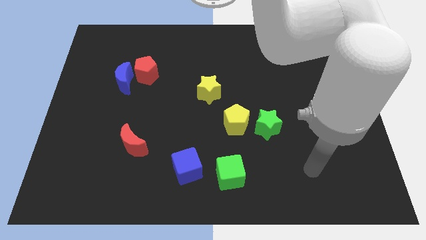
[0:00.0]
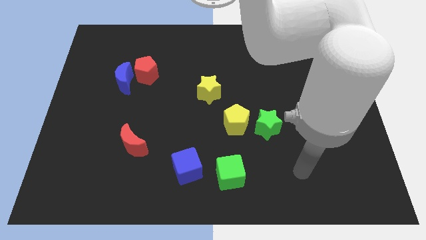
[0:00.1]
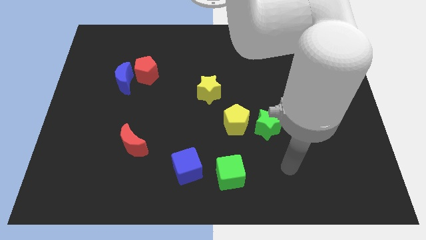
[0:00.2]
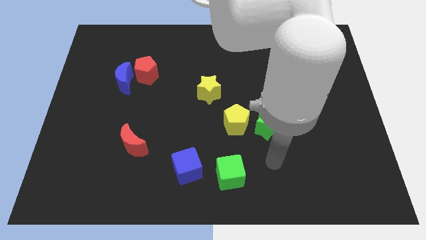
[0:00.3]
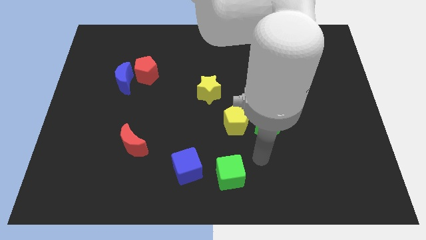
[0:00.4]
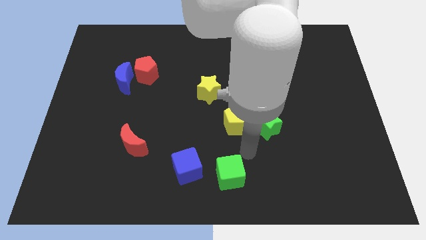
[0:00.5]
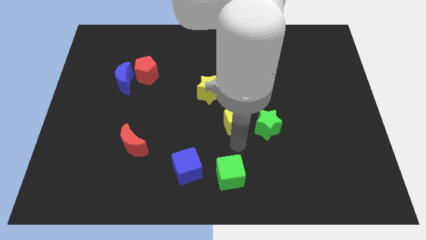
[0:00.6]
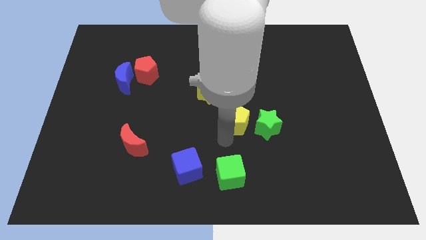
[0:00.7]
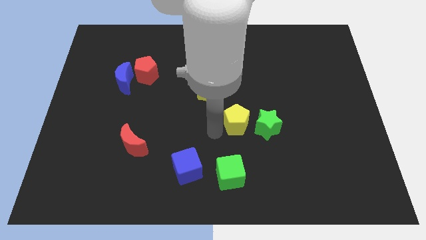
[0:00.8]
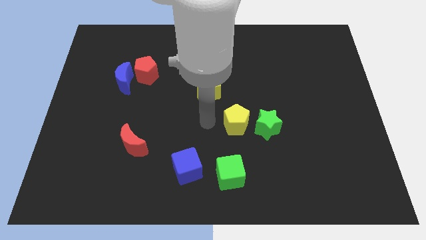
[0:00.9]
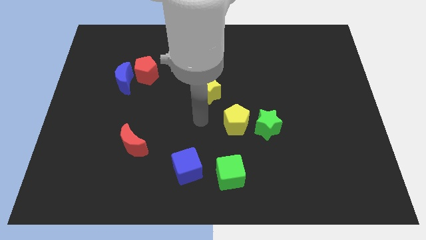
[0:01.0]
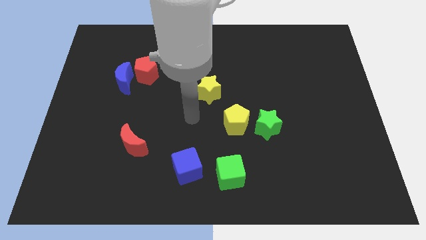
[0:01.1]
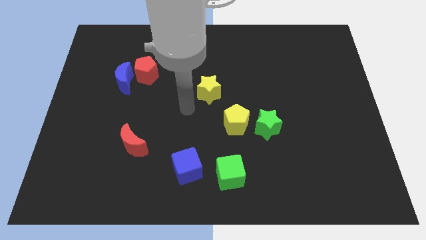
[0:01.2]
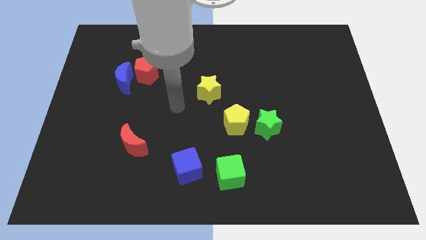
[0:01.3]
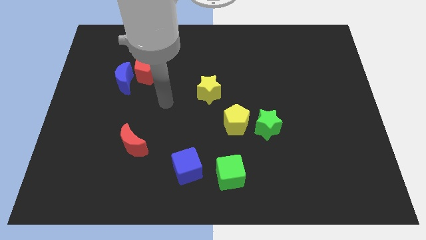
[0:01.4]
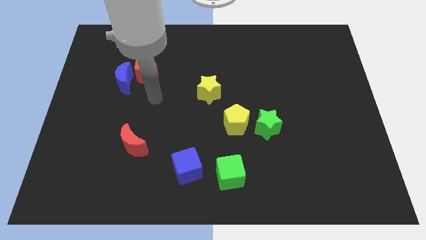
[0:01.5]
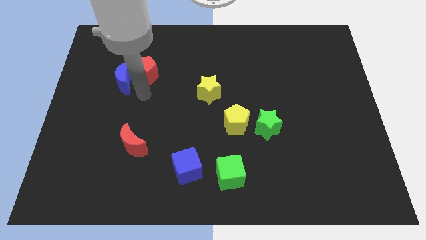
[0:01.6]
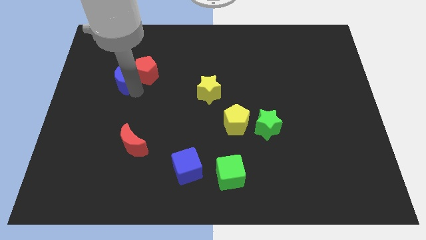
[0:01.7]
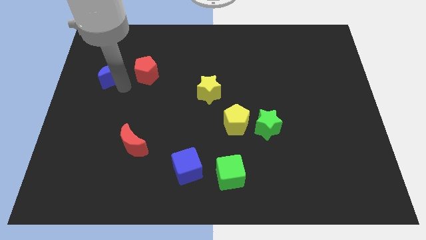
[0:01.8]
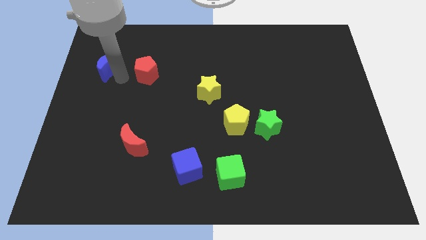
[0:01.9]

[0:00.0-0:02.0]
move the red pentagon away from the blue moon

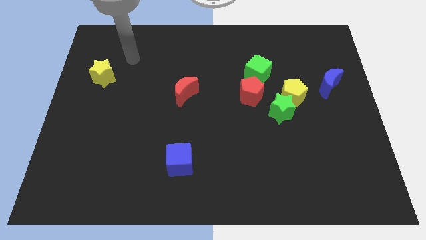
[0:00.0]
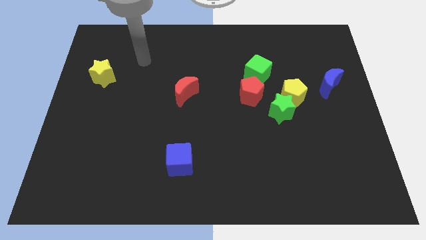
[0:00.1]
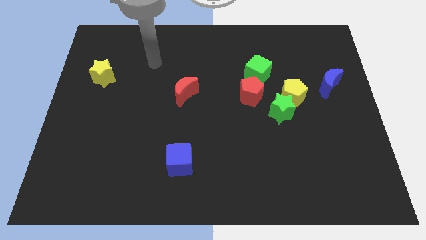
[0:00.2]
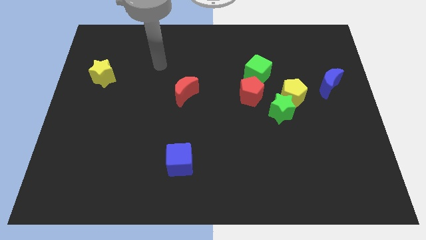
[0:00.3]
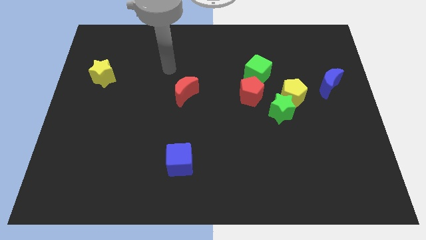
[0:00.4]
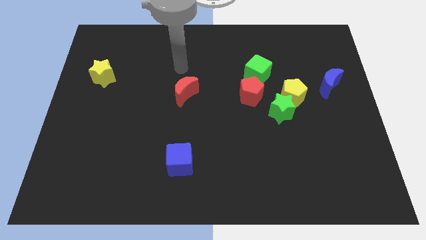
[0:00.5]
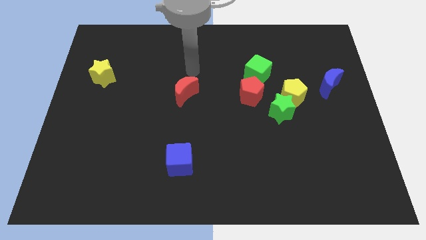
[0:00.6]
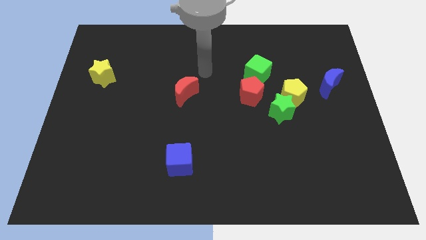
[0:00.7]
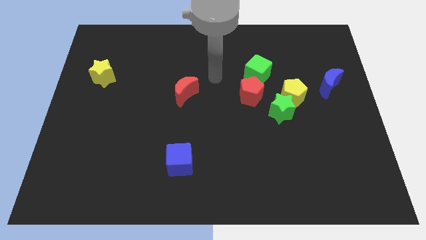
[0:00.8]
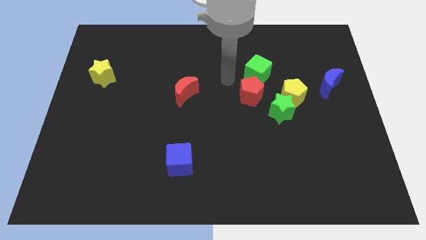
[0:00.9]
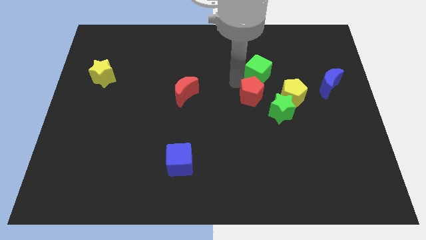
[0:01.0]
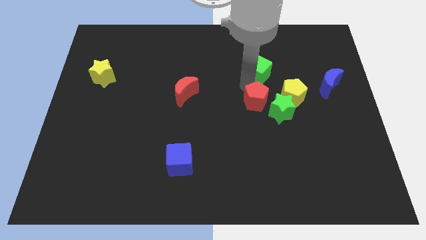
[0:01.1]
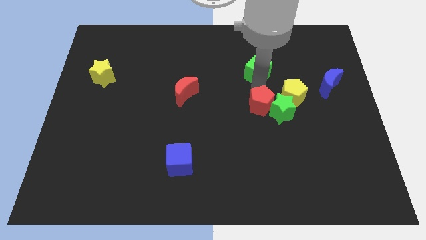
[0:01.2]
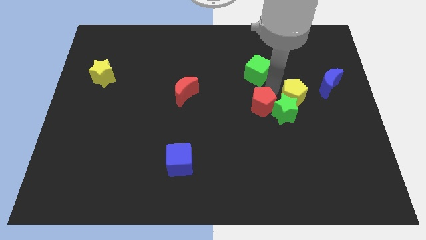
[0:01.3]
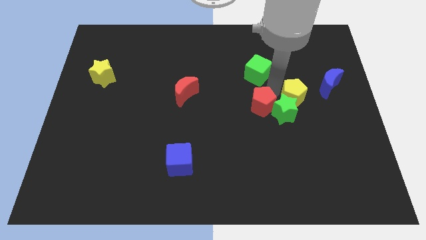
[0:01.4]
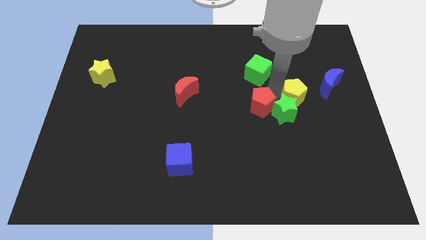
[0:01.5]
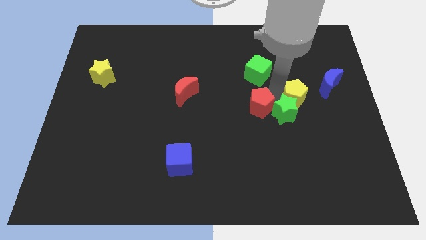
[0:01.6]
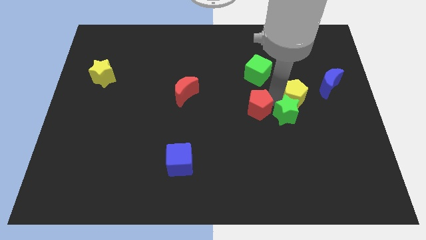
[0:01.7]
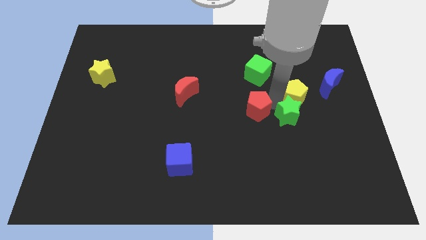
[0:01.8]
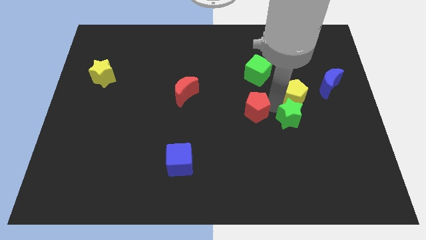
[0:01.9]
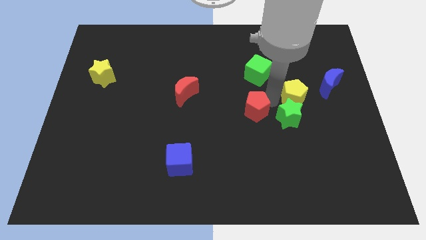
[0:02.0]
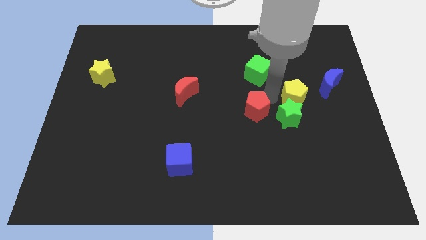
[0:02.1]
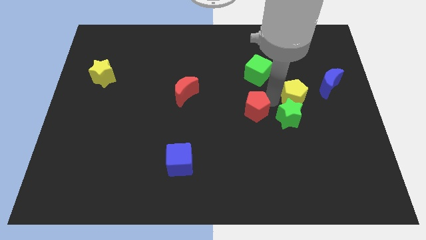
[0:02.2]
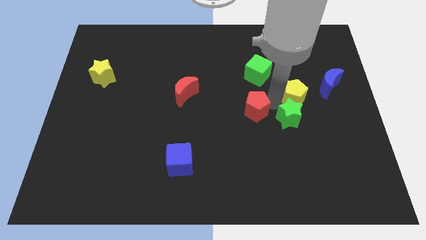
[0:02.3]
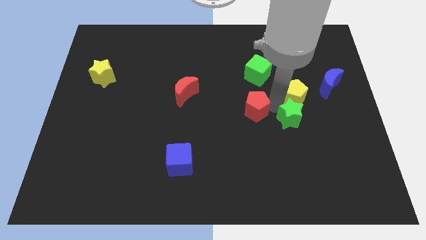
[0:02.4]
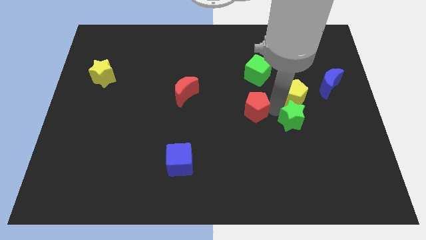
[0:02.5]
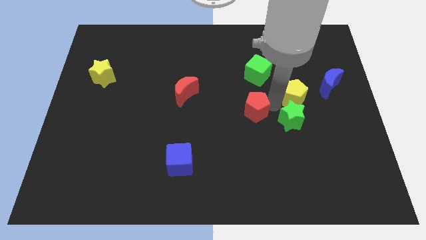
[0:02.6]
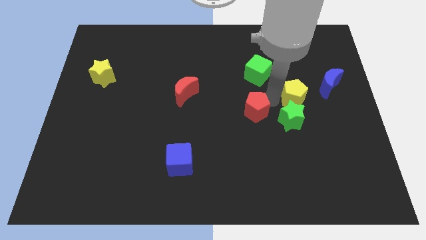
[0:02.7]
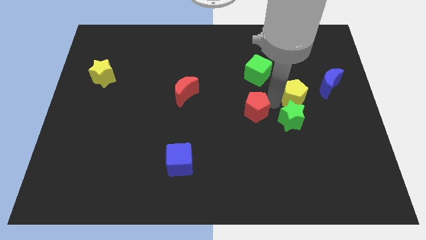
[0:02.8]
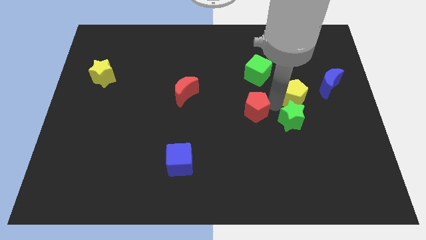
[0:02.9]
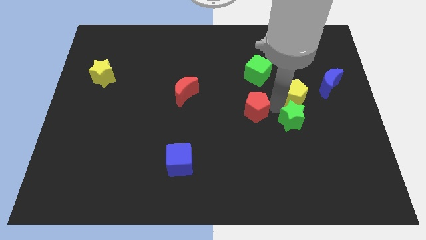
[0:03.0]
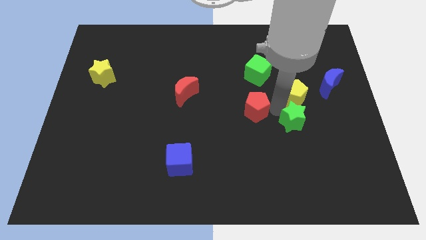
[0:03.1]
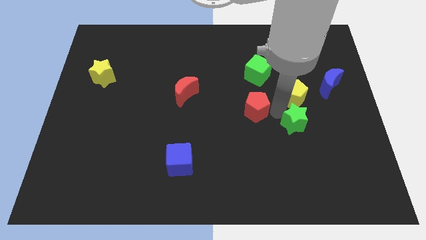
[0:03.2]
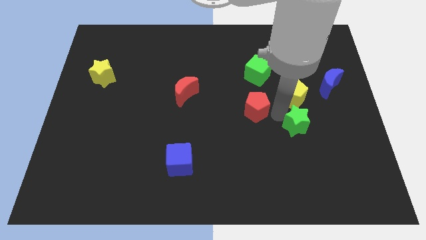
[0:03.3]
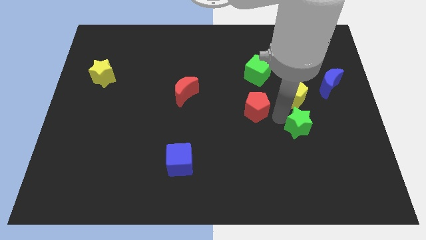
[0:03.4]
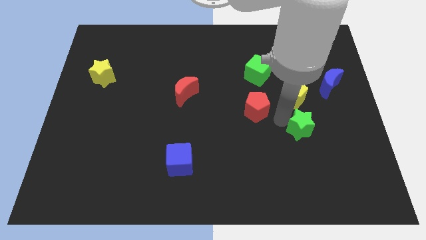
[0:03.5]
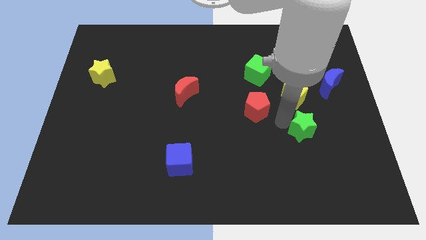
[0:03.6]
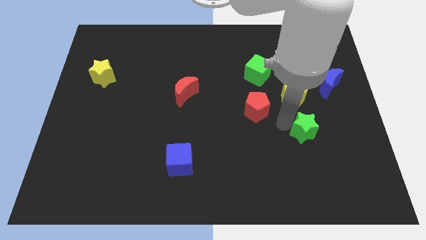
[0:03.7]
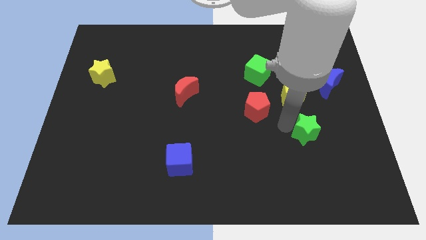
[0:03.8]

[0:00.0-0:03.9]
move the green star away from the yellow pentagon and red pentagon

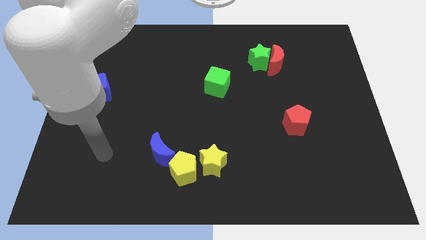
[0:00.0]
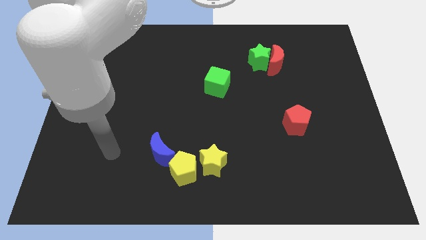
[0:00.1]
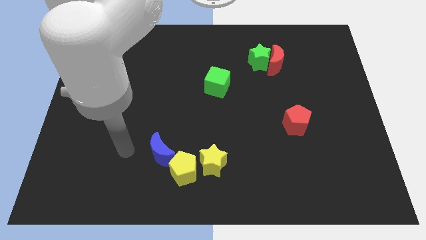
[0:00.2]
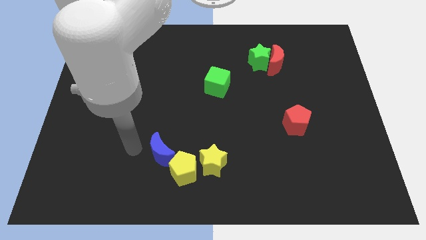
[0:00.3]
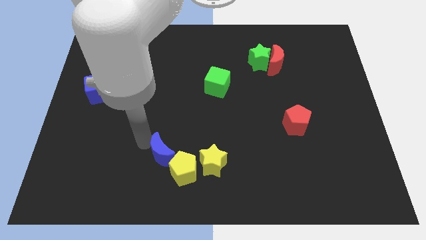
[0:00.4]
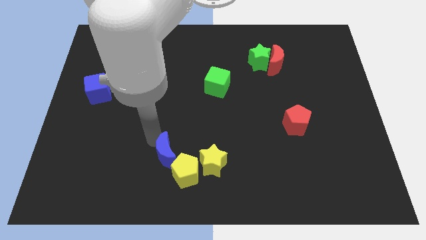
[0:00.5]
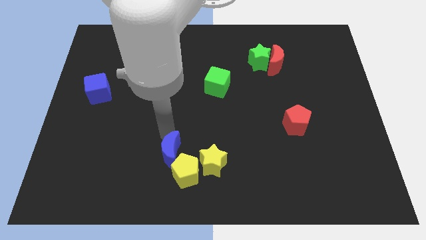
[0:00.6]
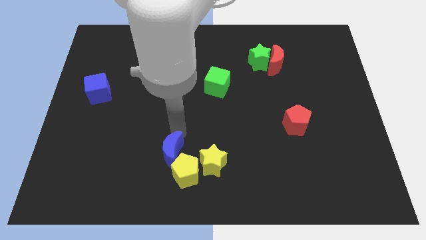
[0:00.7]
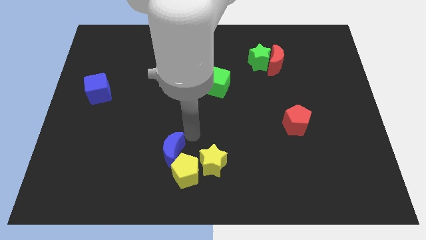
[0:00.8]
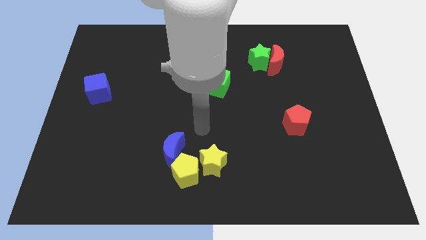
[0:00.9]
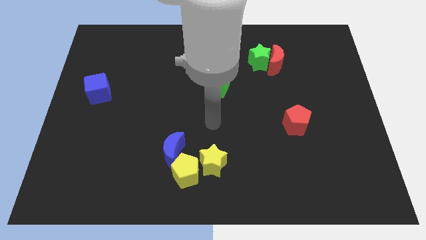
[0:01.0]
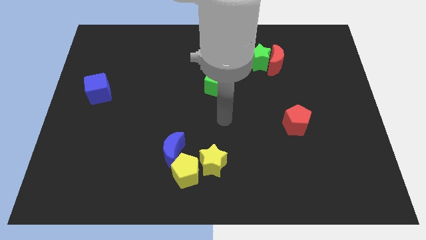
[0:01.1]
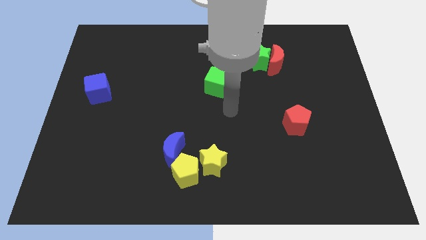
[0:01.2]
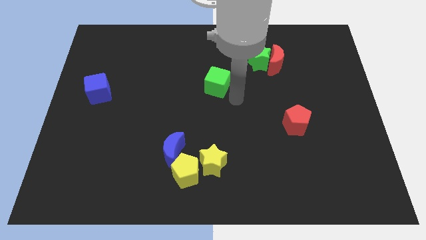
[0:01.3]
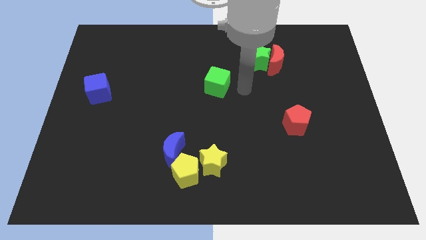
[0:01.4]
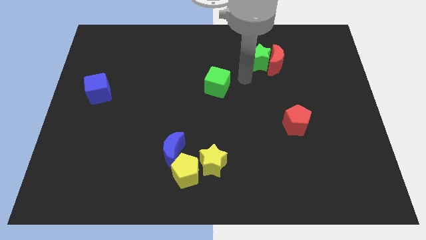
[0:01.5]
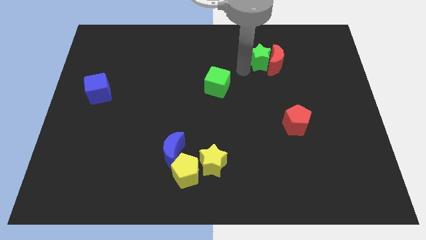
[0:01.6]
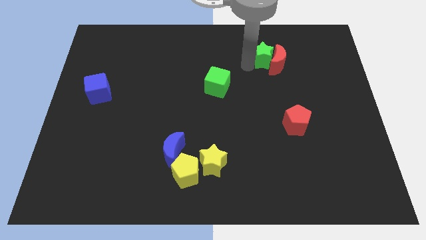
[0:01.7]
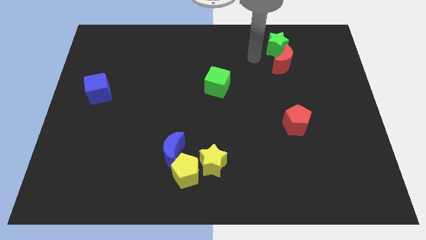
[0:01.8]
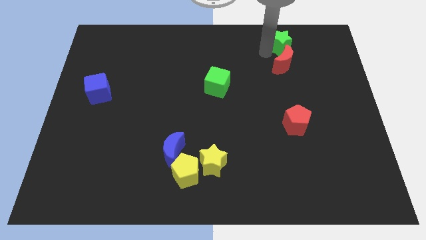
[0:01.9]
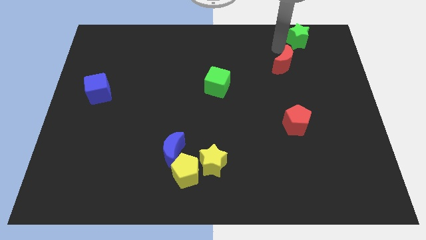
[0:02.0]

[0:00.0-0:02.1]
separate the red moon from the green star

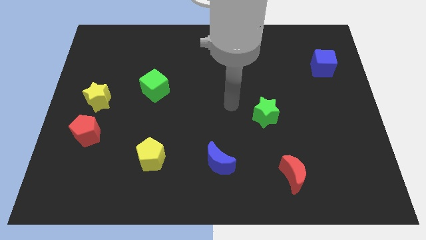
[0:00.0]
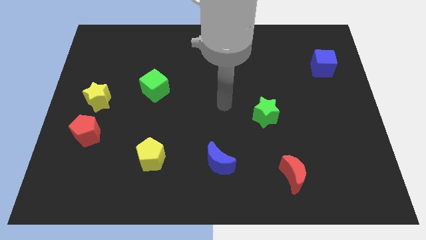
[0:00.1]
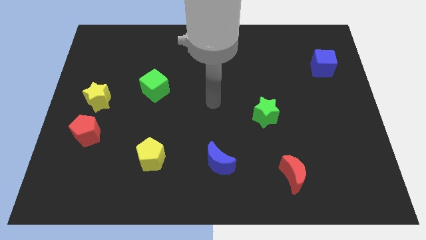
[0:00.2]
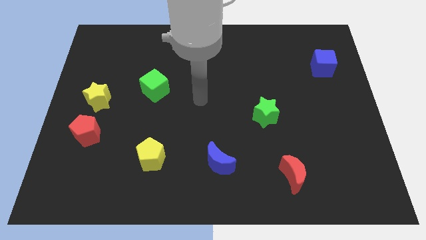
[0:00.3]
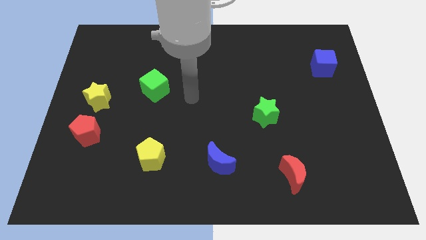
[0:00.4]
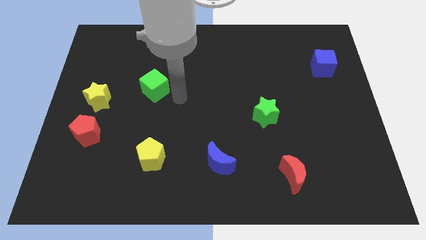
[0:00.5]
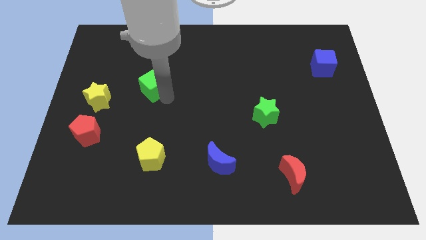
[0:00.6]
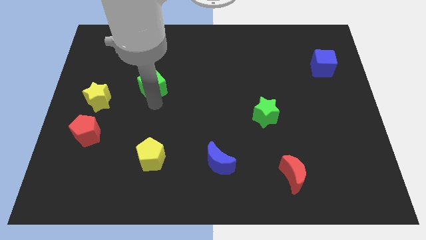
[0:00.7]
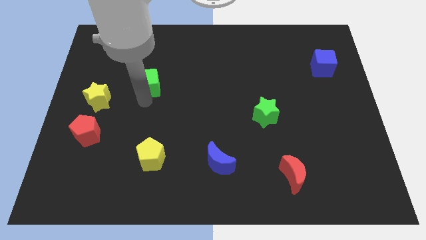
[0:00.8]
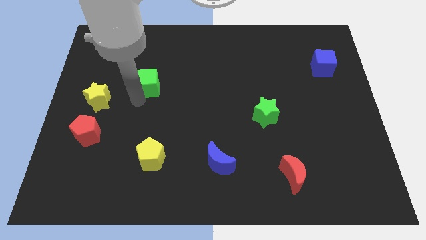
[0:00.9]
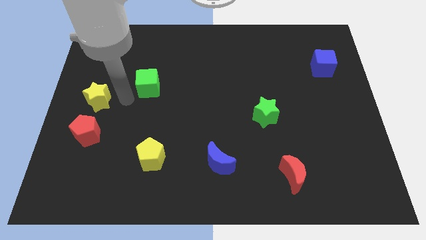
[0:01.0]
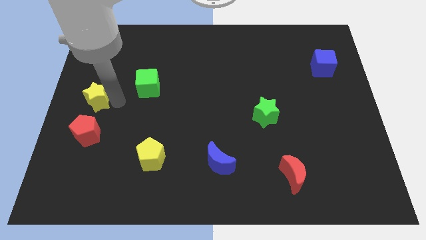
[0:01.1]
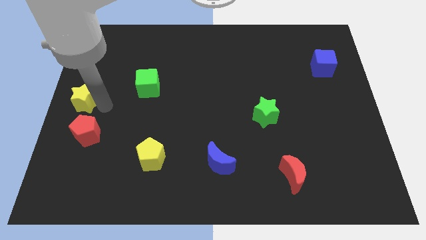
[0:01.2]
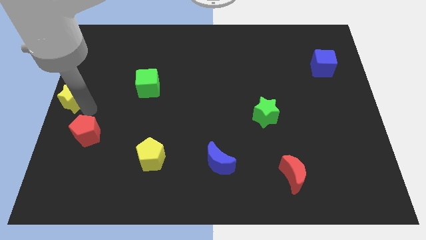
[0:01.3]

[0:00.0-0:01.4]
separate the red pentagon from the yellow star
